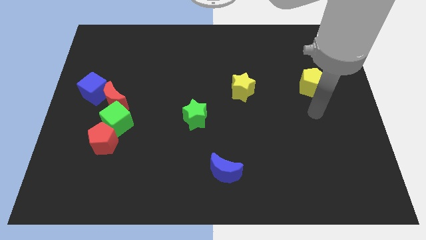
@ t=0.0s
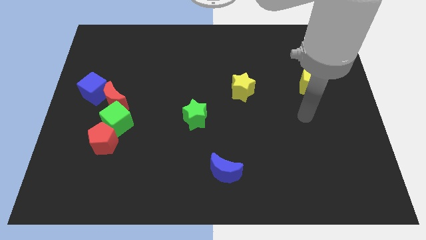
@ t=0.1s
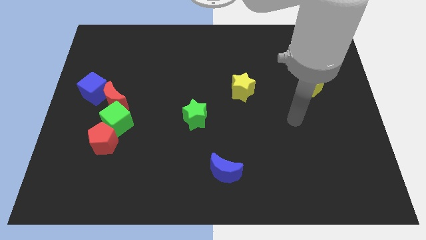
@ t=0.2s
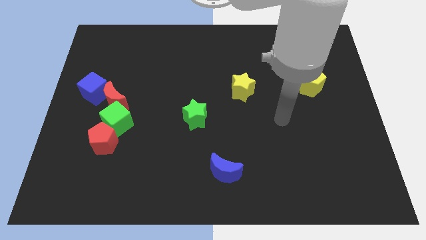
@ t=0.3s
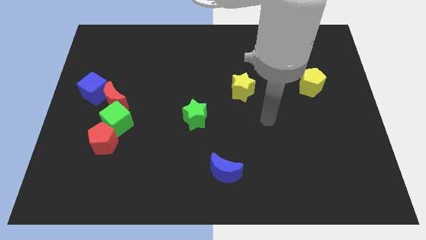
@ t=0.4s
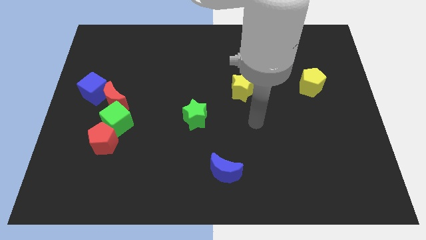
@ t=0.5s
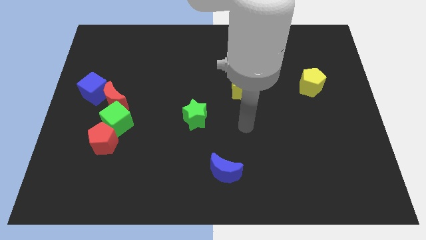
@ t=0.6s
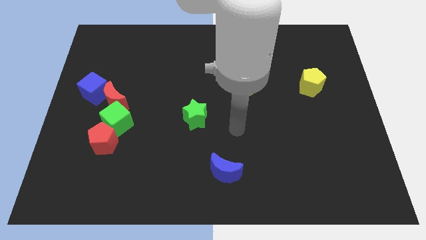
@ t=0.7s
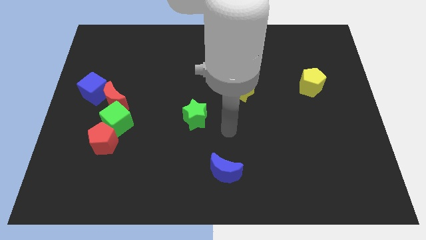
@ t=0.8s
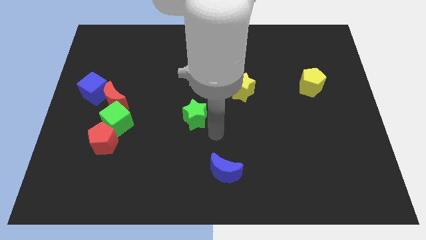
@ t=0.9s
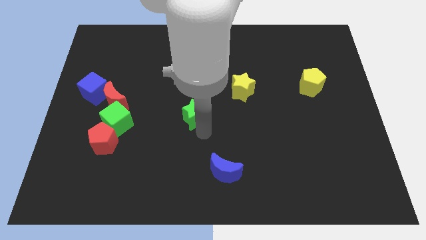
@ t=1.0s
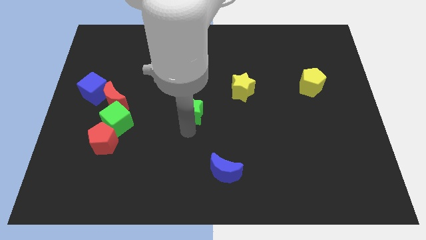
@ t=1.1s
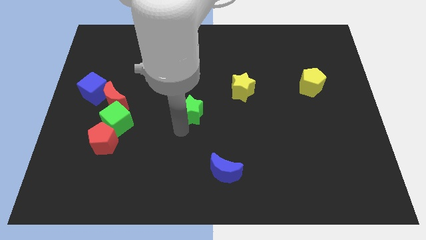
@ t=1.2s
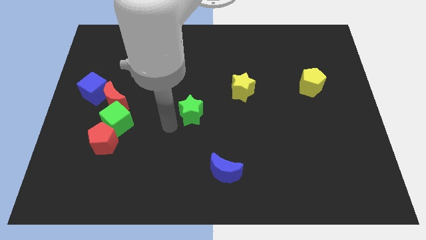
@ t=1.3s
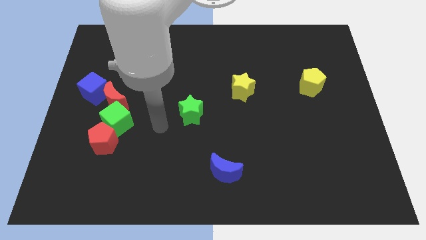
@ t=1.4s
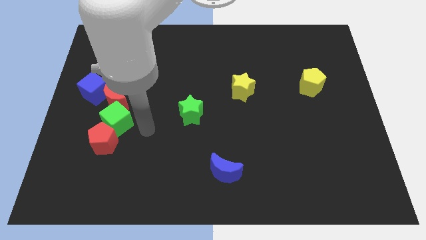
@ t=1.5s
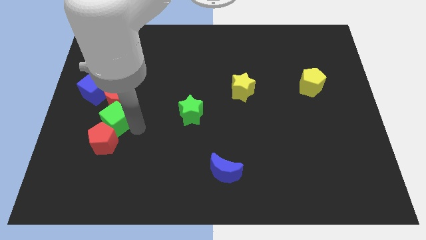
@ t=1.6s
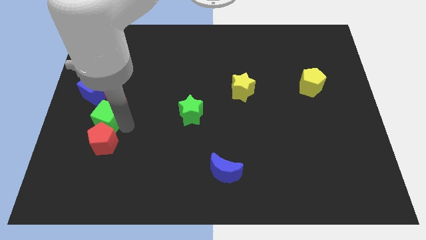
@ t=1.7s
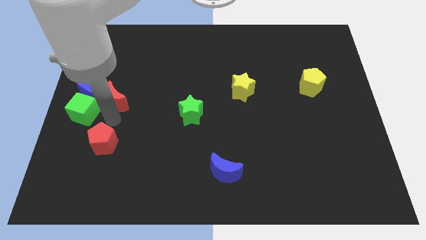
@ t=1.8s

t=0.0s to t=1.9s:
pull the red pentagon apart from the green cube

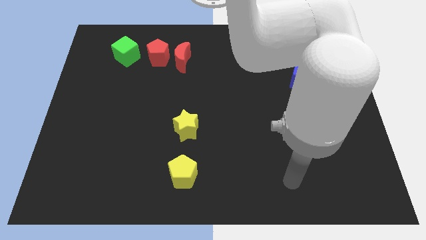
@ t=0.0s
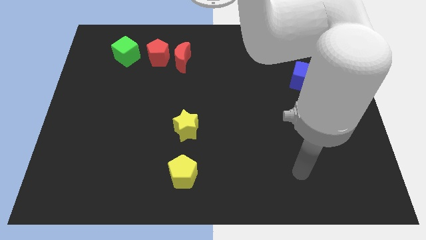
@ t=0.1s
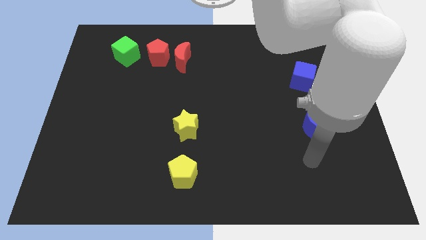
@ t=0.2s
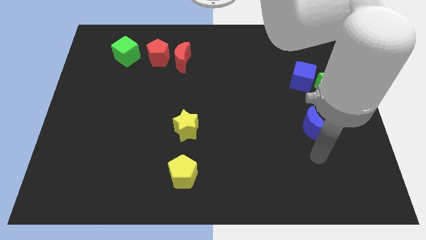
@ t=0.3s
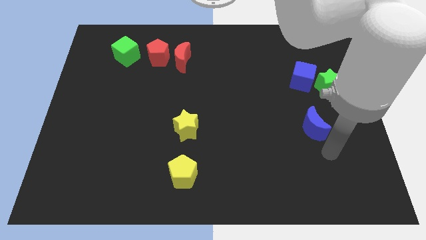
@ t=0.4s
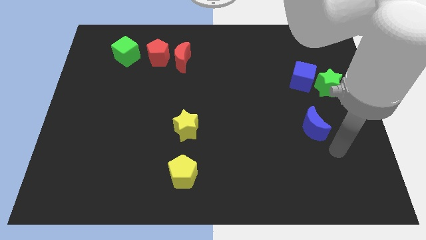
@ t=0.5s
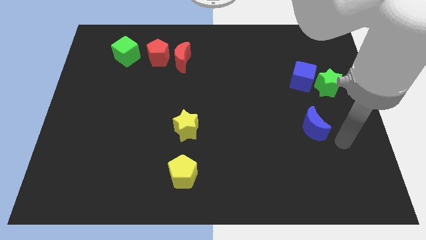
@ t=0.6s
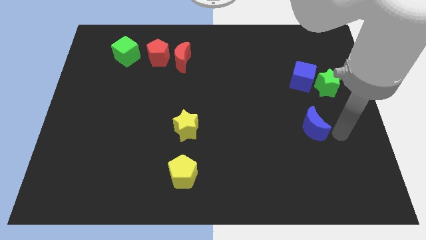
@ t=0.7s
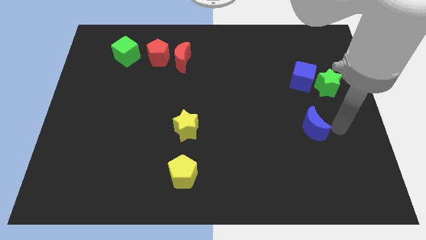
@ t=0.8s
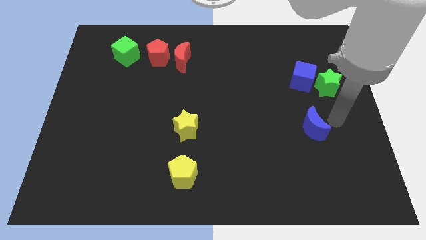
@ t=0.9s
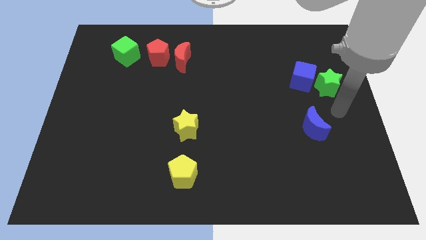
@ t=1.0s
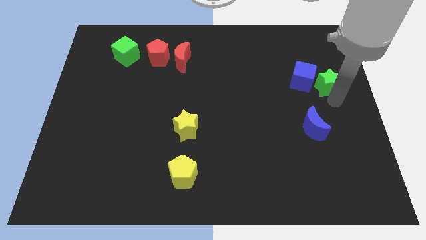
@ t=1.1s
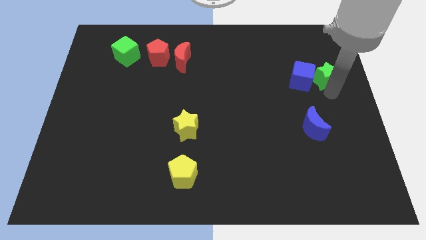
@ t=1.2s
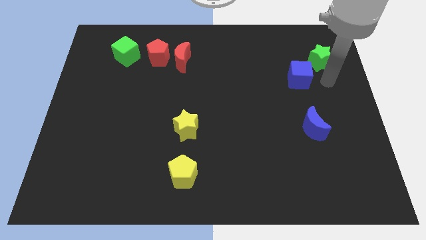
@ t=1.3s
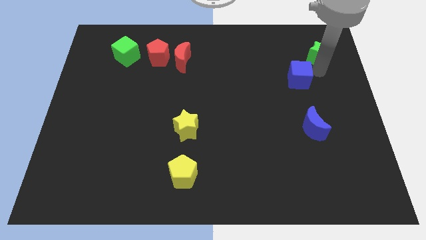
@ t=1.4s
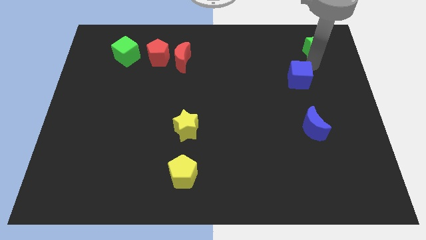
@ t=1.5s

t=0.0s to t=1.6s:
move the blue cube away from the green star

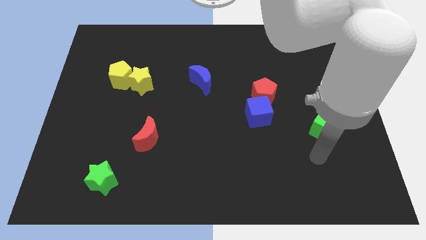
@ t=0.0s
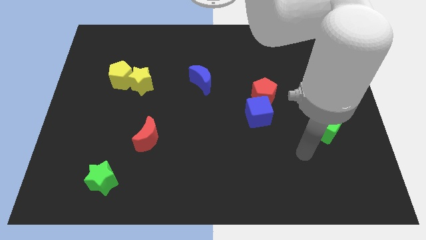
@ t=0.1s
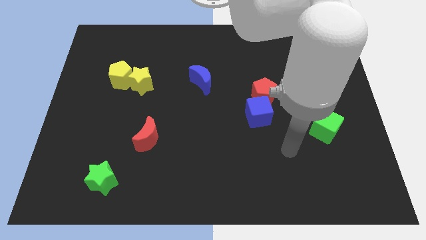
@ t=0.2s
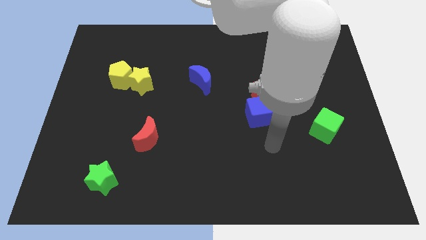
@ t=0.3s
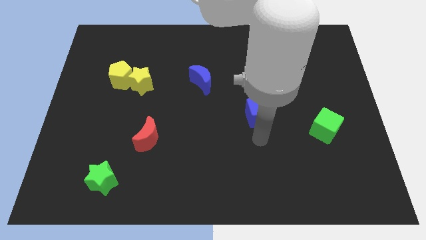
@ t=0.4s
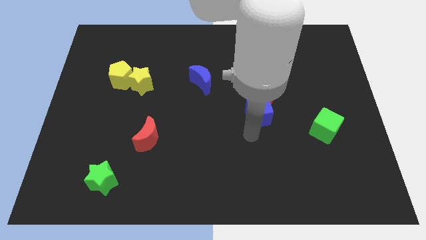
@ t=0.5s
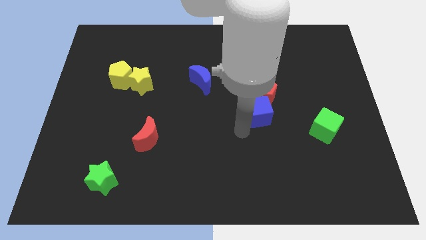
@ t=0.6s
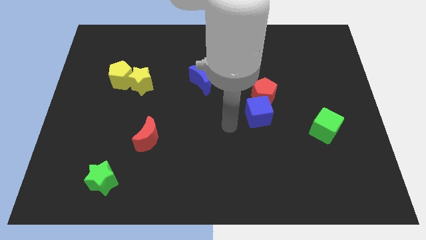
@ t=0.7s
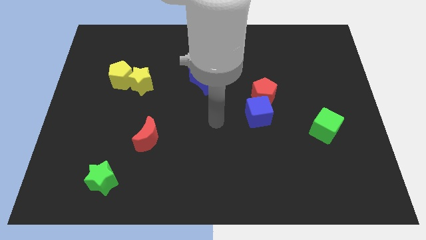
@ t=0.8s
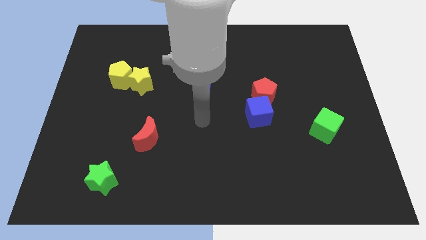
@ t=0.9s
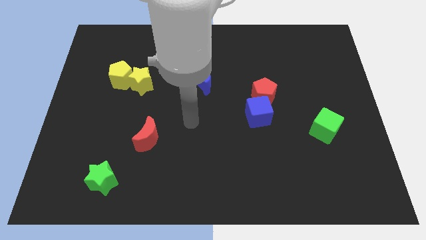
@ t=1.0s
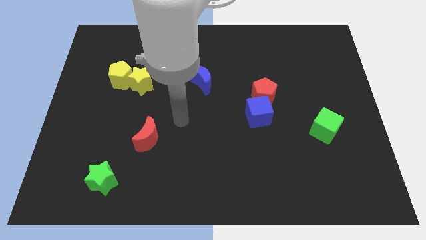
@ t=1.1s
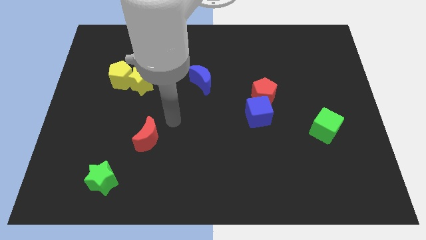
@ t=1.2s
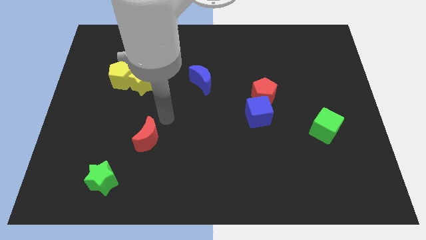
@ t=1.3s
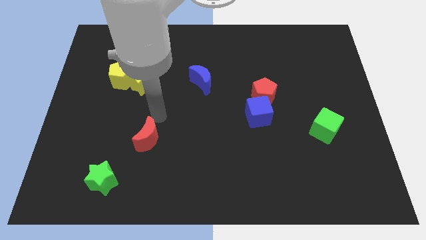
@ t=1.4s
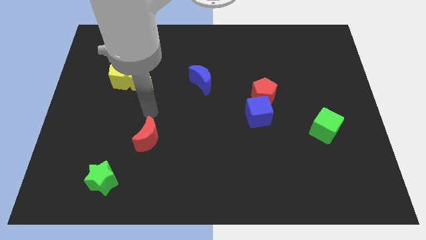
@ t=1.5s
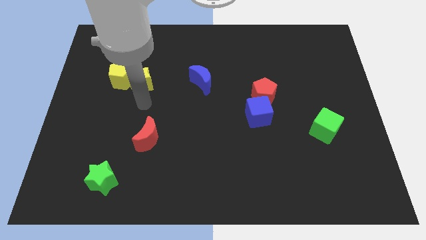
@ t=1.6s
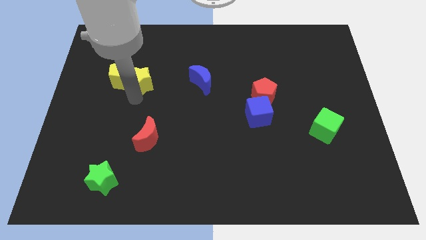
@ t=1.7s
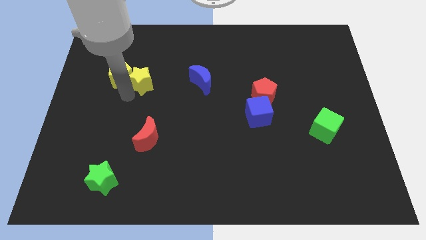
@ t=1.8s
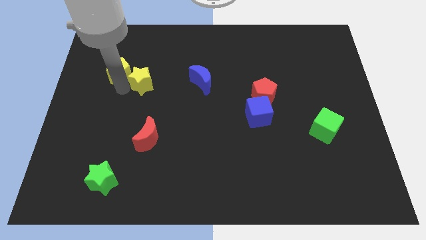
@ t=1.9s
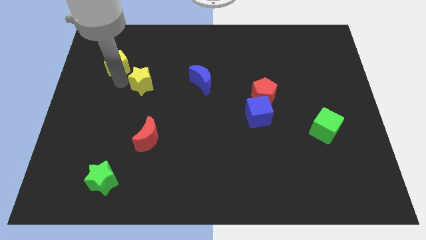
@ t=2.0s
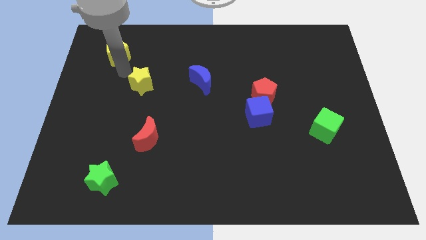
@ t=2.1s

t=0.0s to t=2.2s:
move the yellow star away from the yellow pentagon

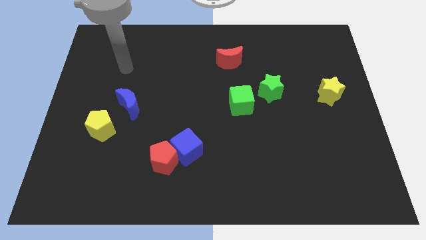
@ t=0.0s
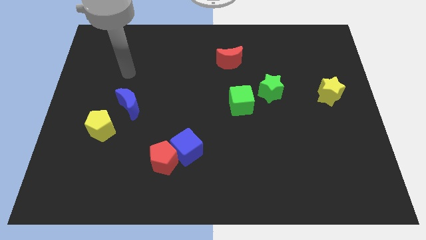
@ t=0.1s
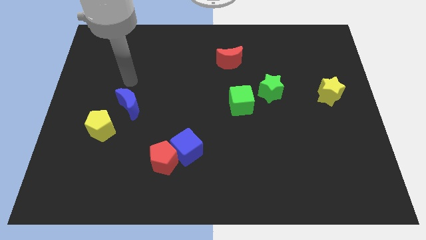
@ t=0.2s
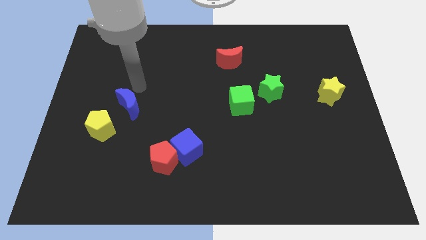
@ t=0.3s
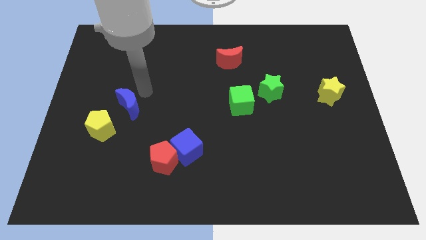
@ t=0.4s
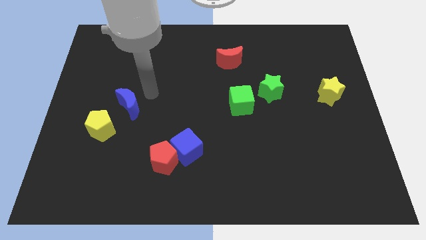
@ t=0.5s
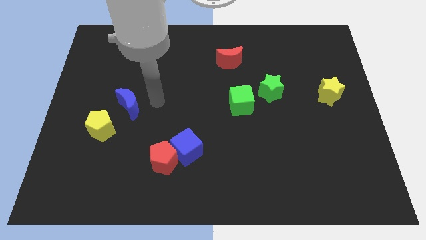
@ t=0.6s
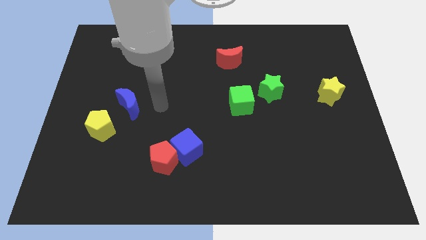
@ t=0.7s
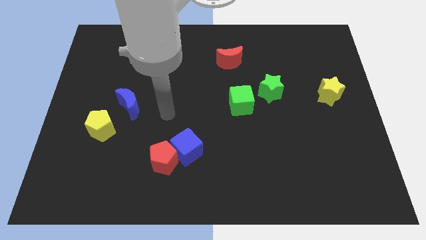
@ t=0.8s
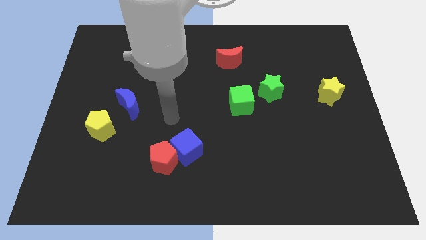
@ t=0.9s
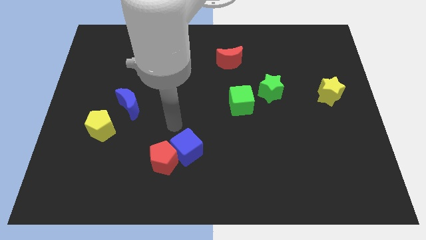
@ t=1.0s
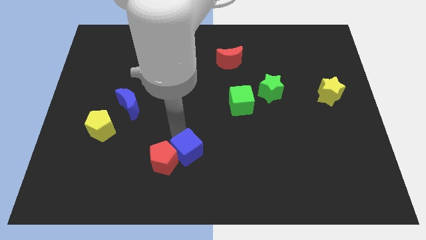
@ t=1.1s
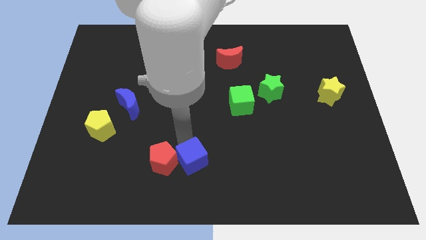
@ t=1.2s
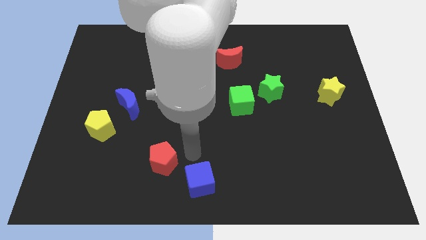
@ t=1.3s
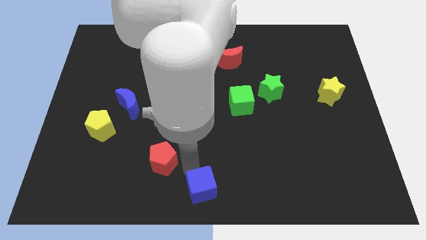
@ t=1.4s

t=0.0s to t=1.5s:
separate the red pentagon from the blue cube

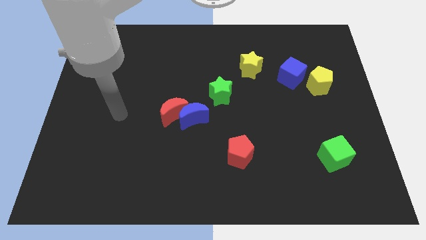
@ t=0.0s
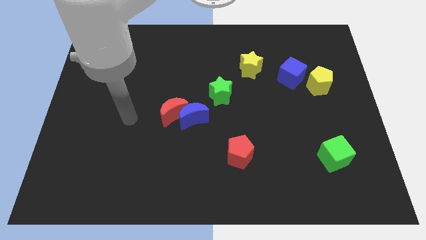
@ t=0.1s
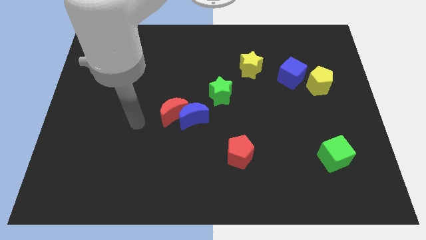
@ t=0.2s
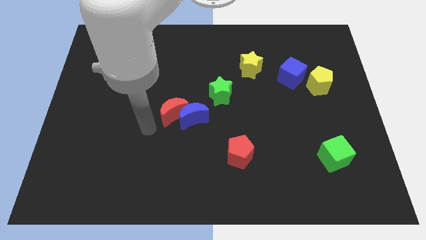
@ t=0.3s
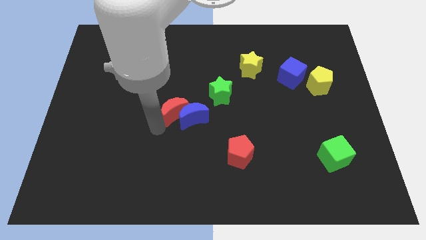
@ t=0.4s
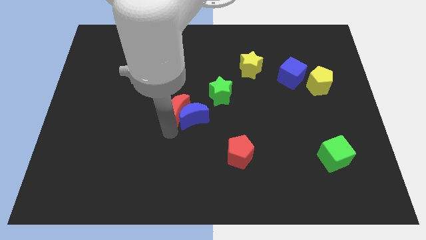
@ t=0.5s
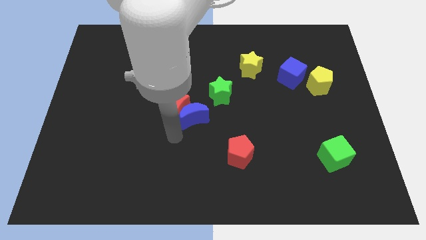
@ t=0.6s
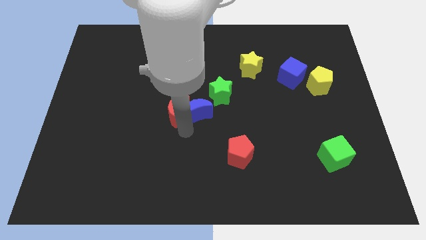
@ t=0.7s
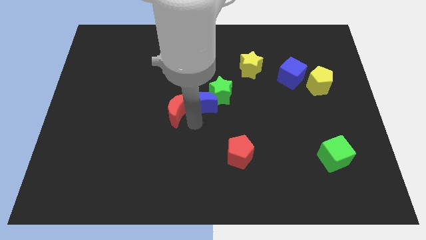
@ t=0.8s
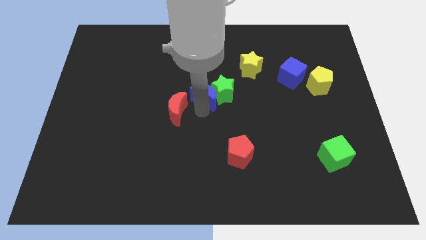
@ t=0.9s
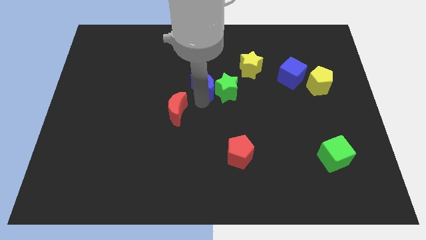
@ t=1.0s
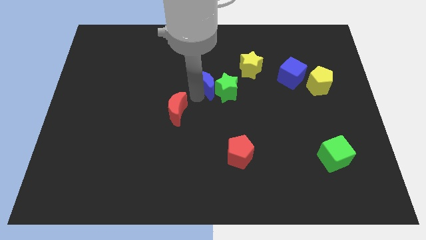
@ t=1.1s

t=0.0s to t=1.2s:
pull the red moon apart from the blue moon

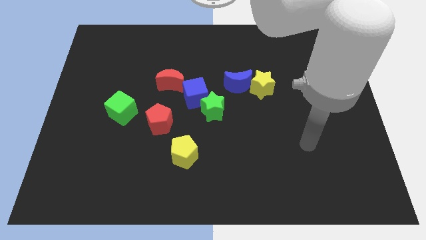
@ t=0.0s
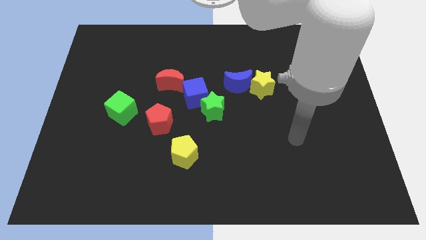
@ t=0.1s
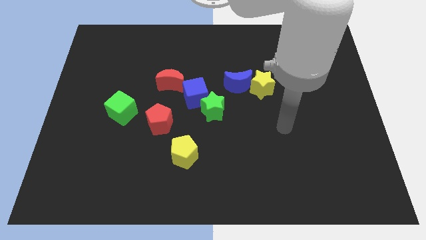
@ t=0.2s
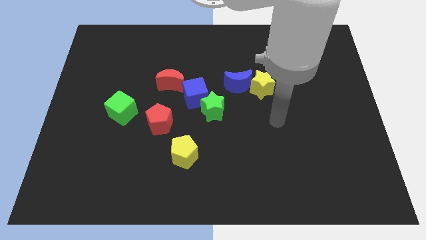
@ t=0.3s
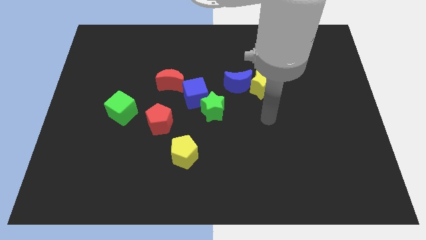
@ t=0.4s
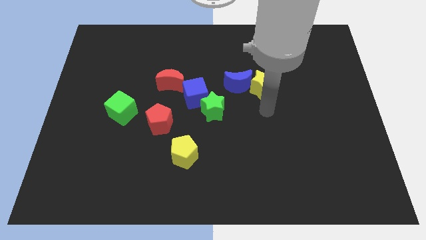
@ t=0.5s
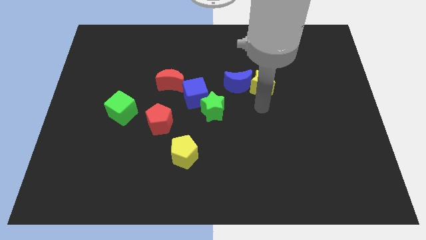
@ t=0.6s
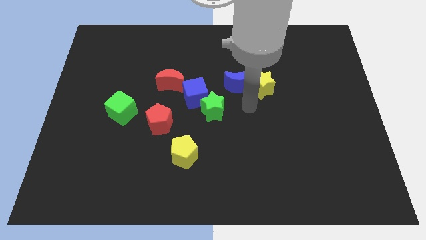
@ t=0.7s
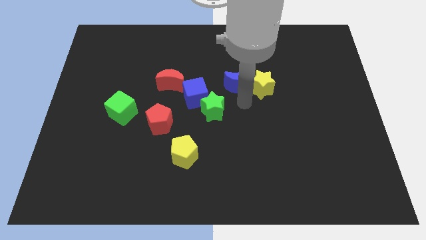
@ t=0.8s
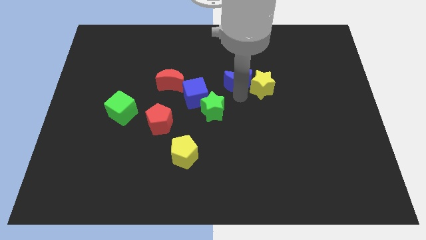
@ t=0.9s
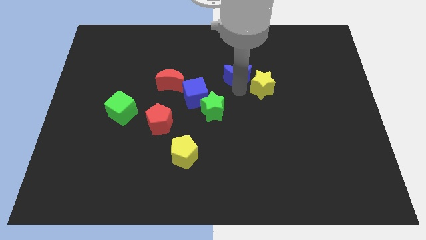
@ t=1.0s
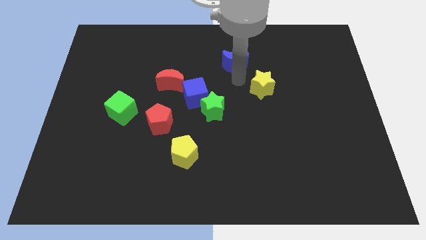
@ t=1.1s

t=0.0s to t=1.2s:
pull the yellow star apart from the blue moon
